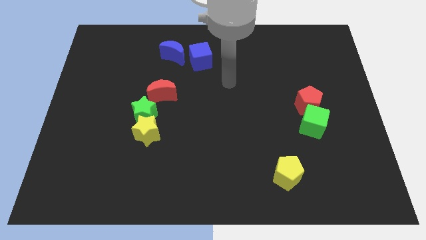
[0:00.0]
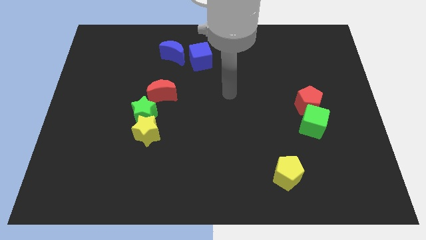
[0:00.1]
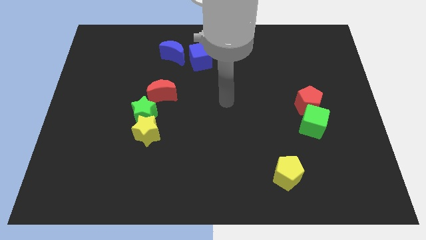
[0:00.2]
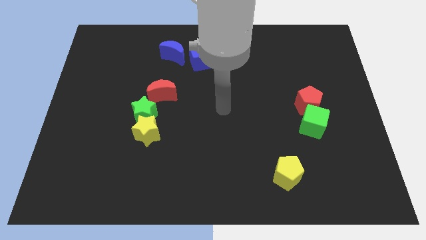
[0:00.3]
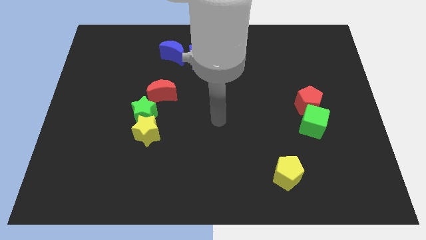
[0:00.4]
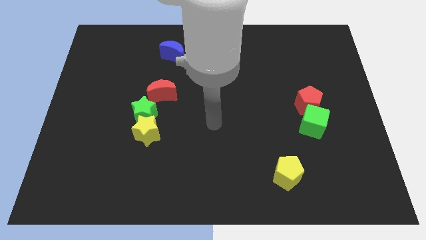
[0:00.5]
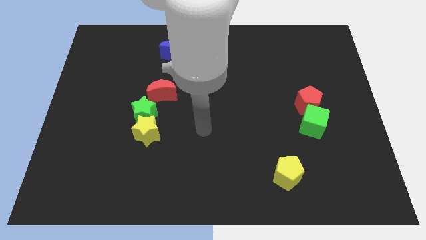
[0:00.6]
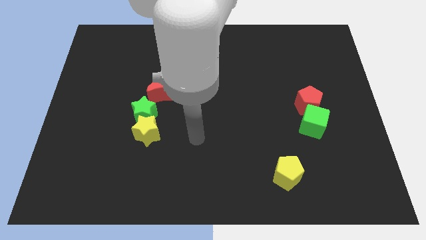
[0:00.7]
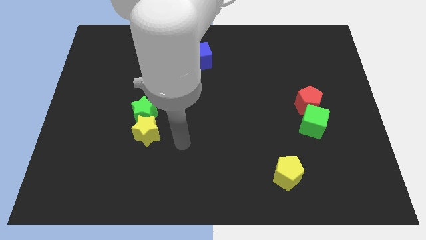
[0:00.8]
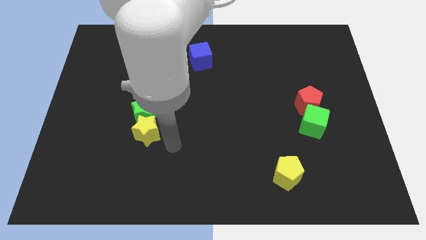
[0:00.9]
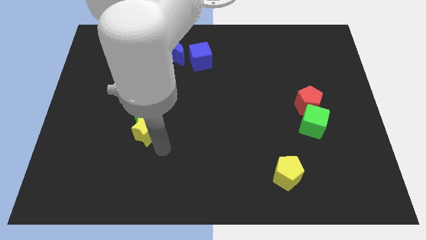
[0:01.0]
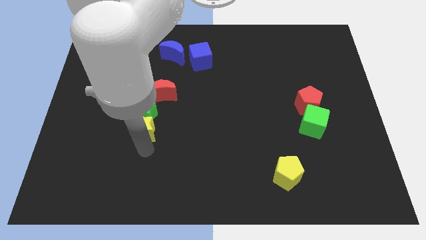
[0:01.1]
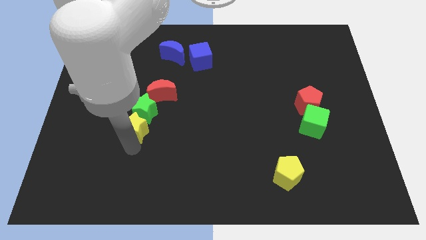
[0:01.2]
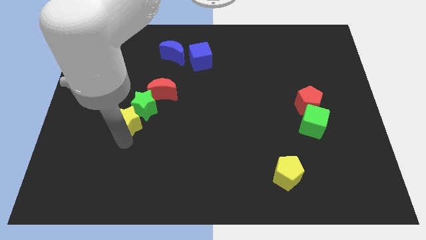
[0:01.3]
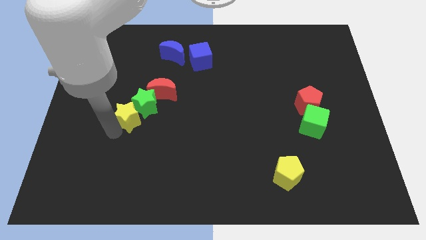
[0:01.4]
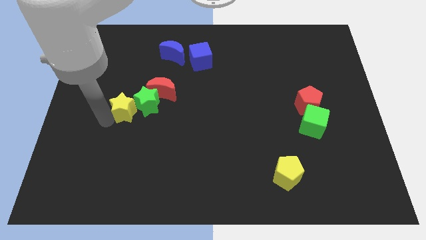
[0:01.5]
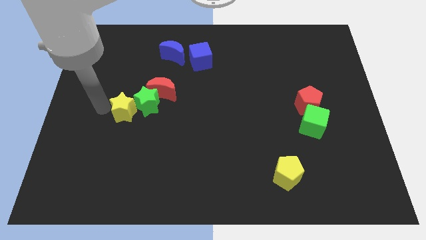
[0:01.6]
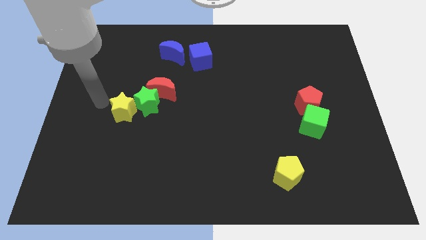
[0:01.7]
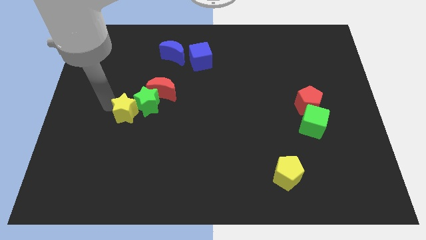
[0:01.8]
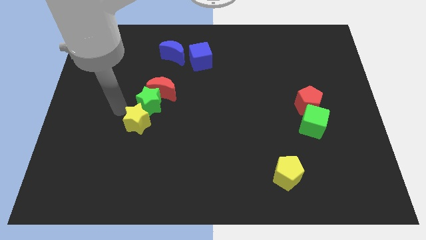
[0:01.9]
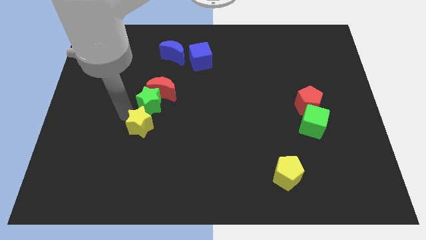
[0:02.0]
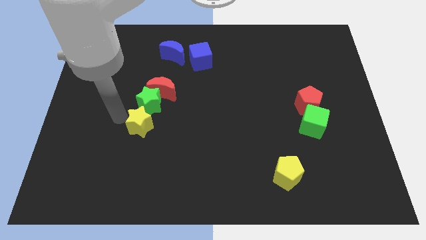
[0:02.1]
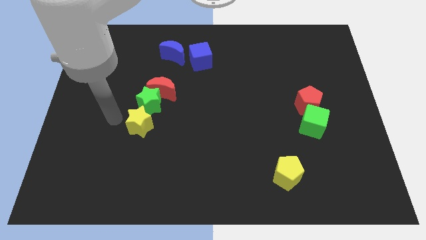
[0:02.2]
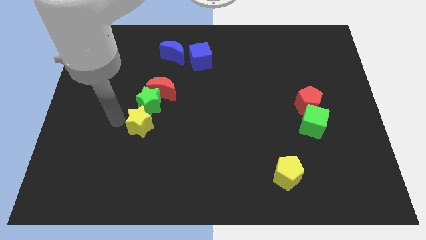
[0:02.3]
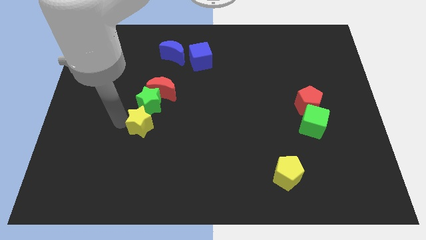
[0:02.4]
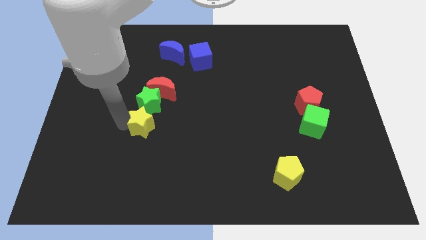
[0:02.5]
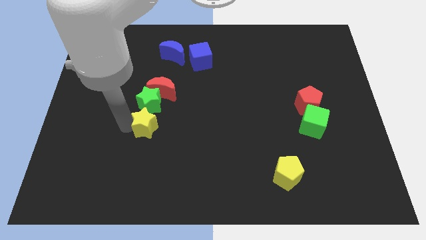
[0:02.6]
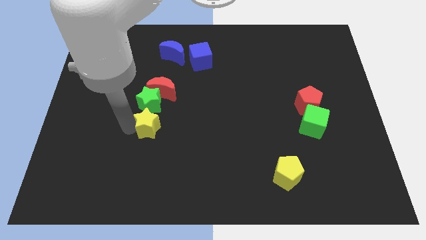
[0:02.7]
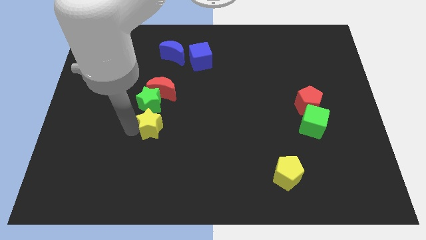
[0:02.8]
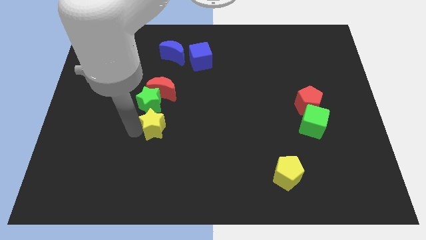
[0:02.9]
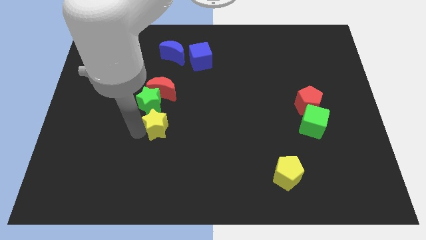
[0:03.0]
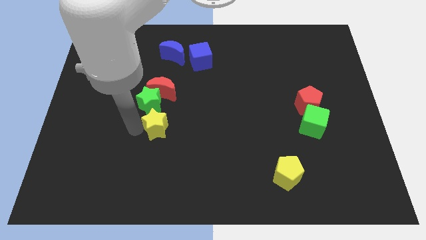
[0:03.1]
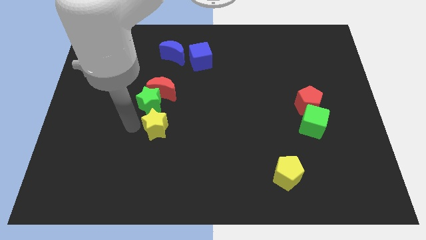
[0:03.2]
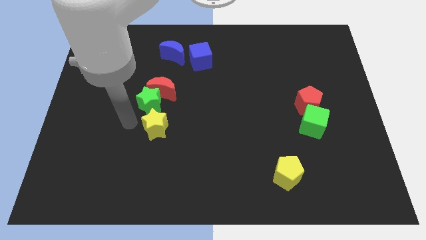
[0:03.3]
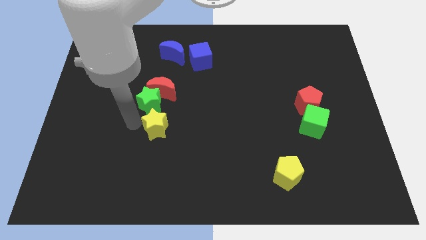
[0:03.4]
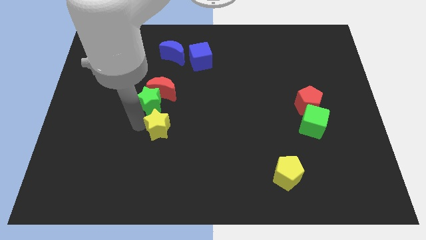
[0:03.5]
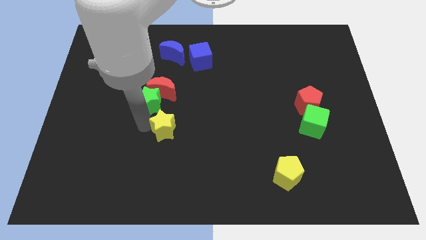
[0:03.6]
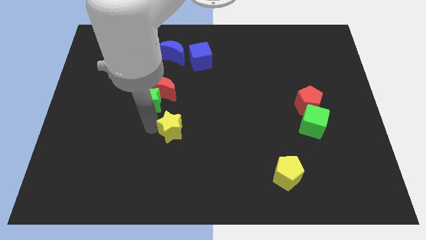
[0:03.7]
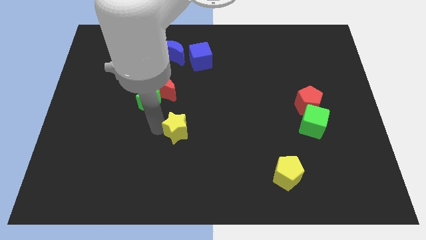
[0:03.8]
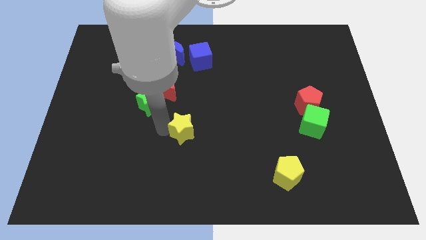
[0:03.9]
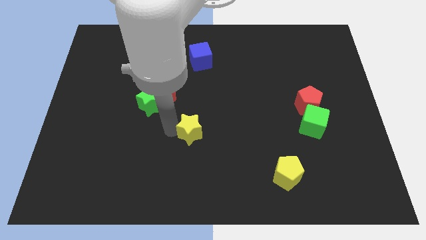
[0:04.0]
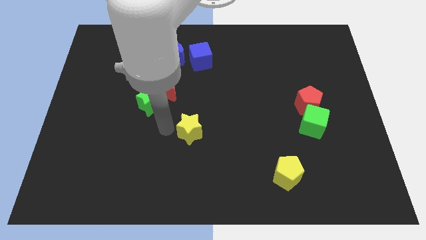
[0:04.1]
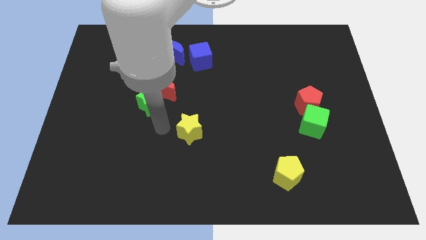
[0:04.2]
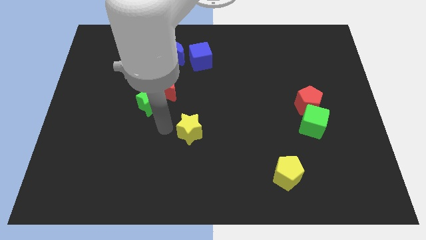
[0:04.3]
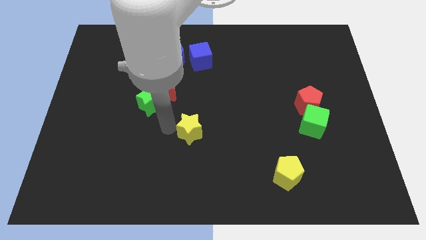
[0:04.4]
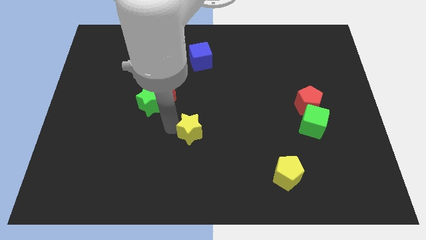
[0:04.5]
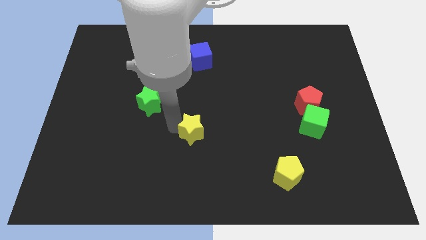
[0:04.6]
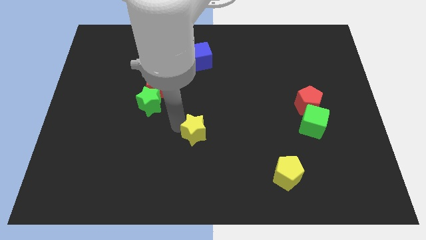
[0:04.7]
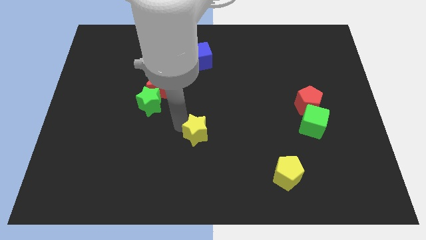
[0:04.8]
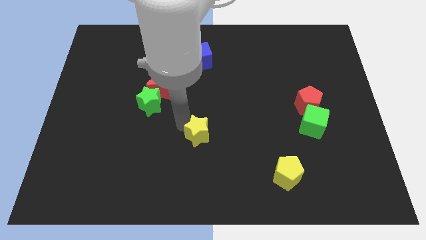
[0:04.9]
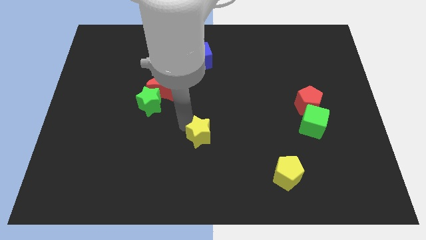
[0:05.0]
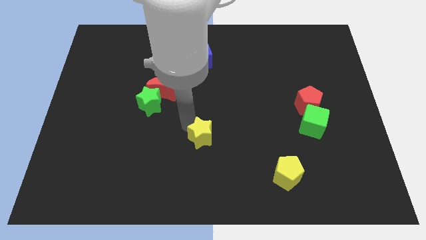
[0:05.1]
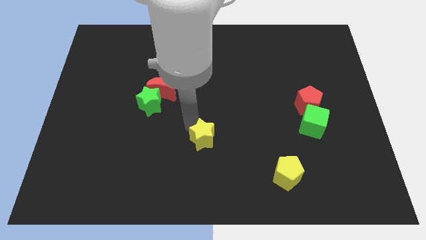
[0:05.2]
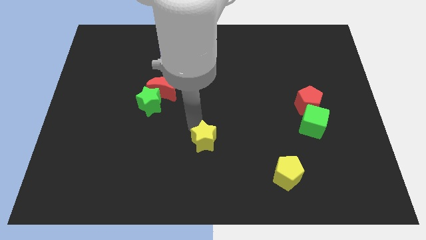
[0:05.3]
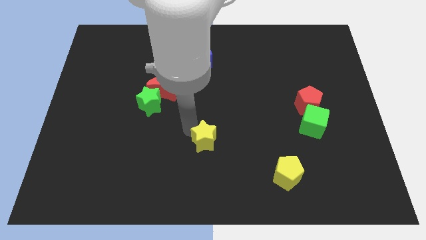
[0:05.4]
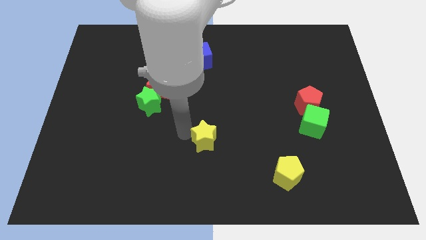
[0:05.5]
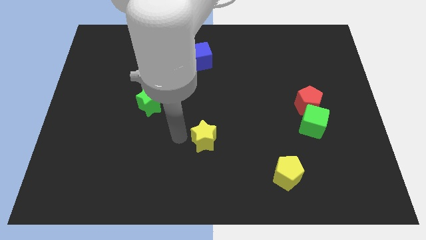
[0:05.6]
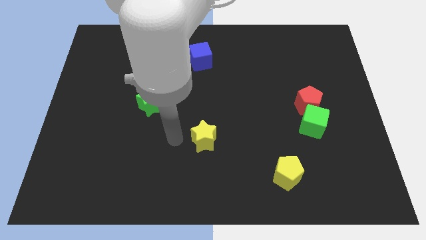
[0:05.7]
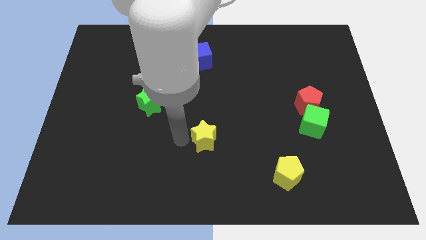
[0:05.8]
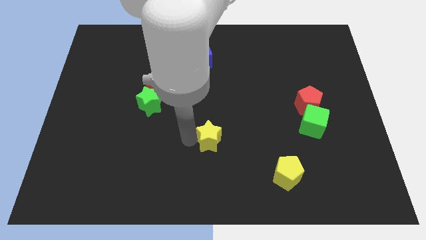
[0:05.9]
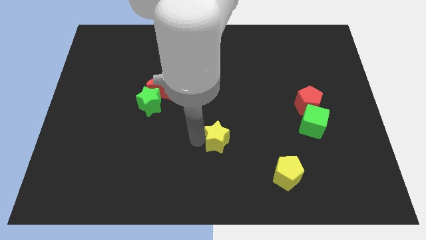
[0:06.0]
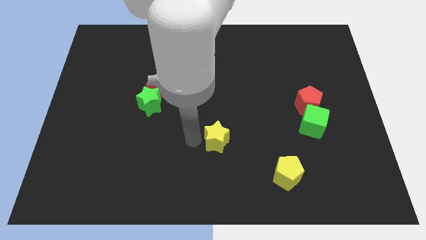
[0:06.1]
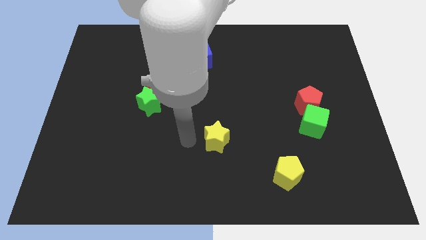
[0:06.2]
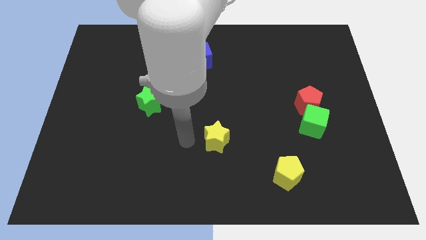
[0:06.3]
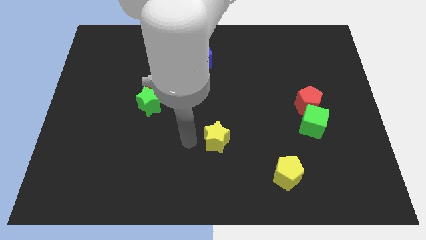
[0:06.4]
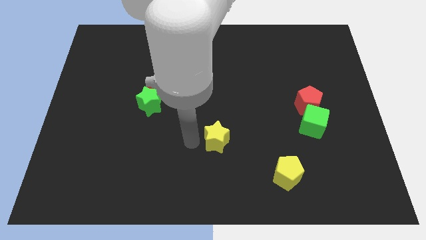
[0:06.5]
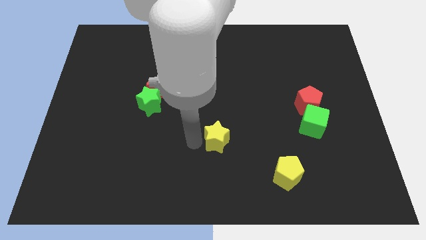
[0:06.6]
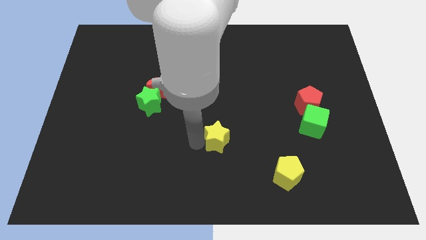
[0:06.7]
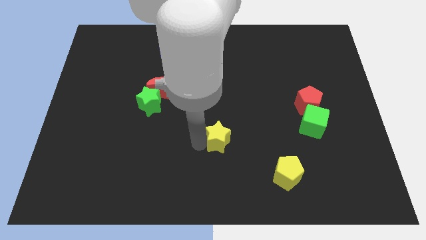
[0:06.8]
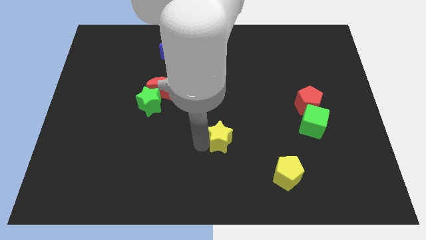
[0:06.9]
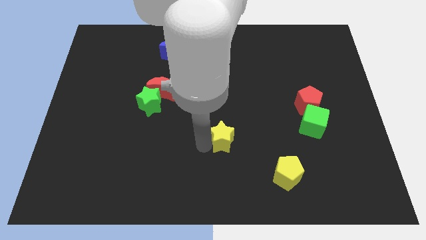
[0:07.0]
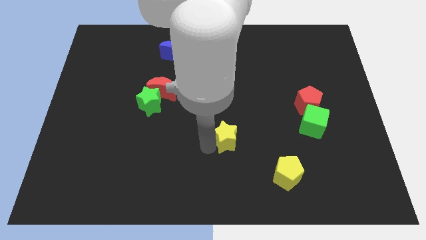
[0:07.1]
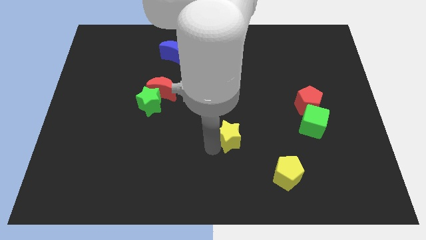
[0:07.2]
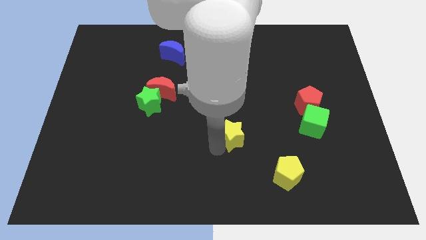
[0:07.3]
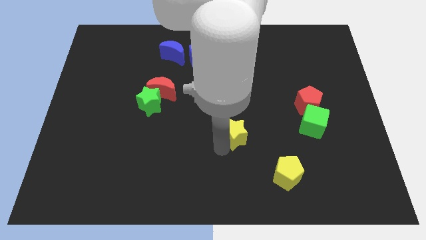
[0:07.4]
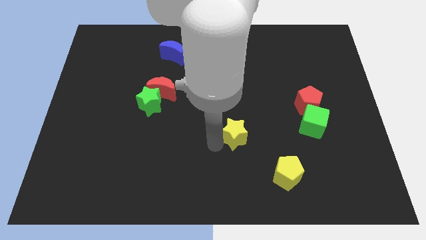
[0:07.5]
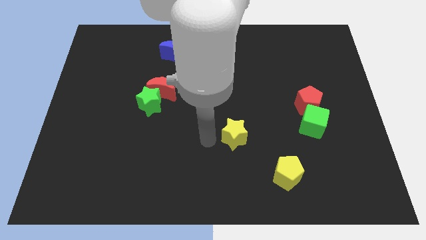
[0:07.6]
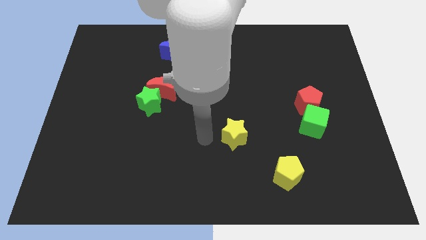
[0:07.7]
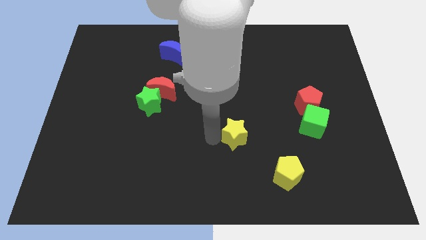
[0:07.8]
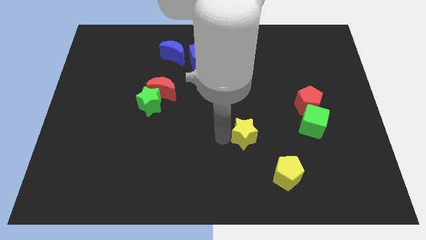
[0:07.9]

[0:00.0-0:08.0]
move the yellow star right
